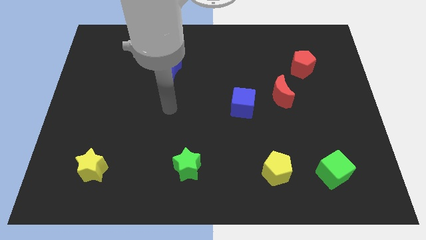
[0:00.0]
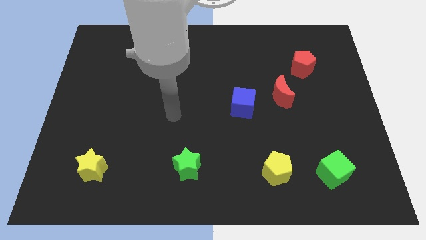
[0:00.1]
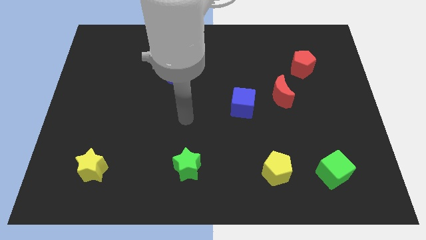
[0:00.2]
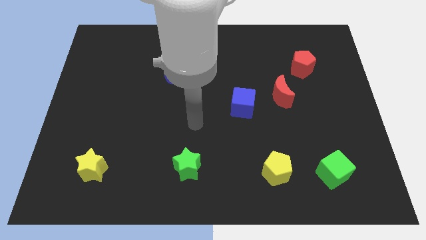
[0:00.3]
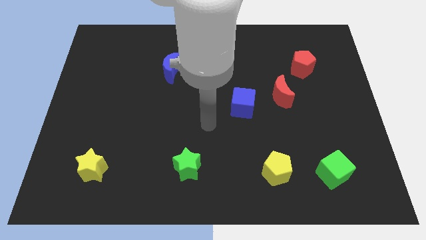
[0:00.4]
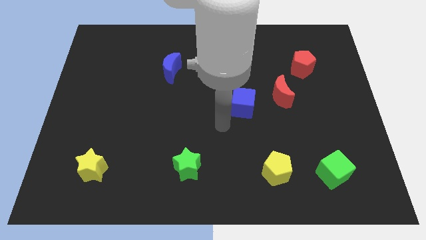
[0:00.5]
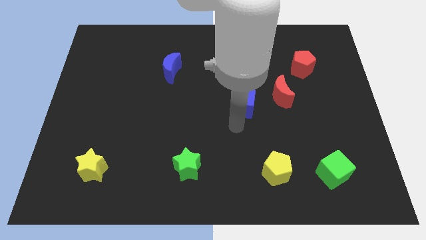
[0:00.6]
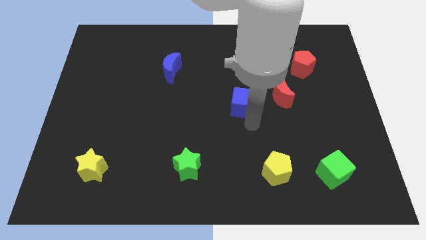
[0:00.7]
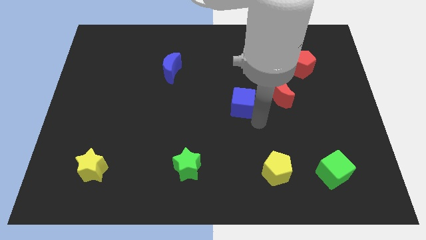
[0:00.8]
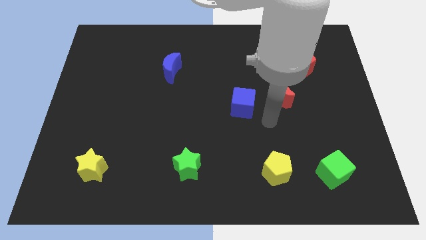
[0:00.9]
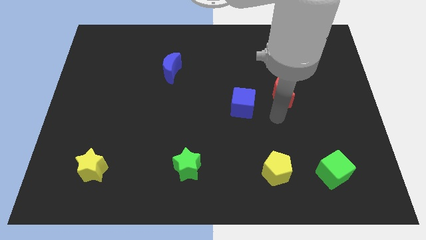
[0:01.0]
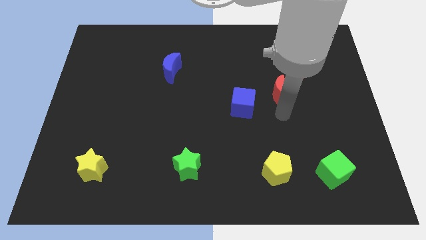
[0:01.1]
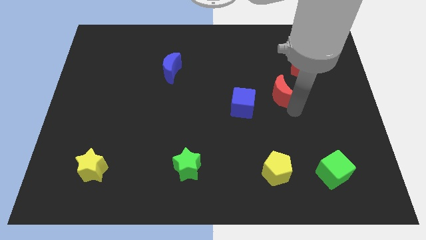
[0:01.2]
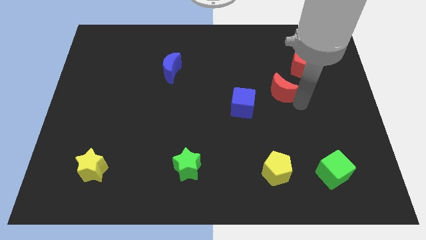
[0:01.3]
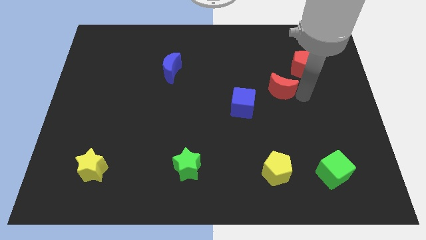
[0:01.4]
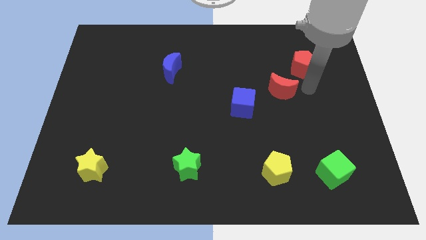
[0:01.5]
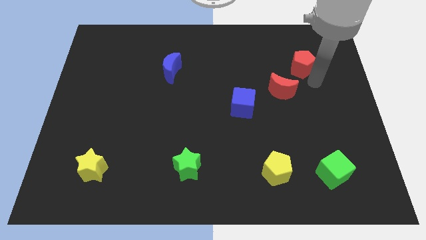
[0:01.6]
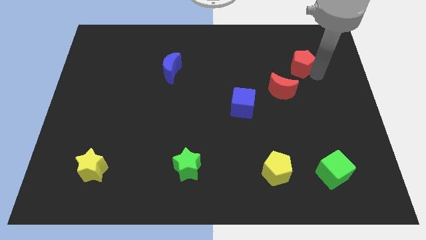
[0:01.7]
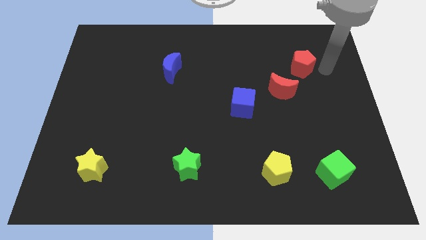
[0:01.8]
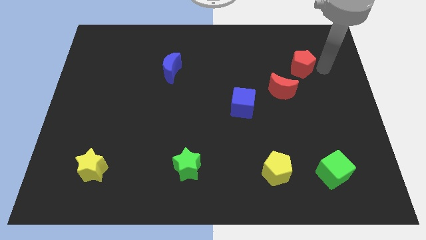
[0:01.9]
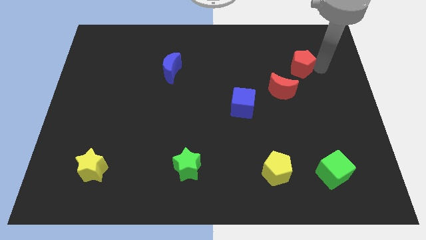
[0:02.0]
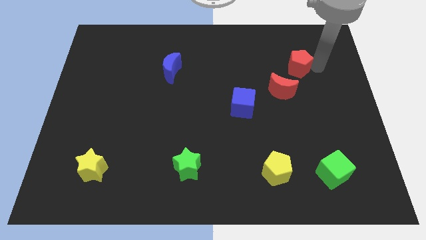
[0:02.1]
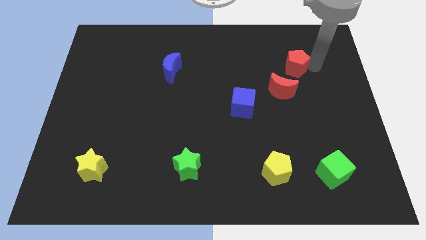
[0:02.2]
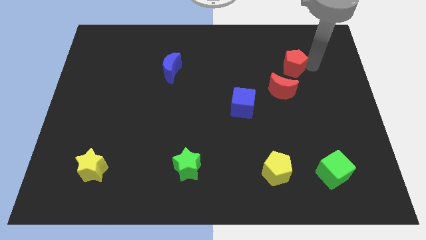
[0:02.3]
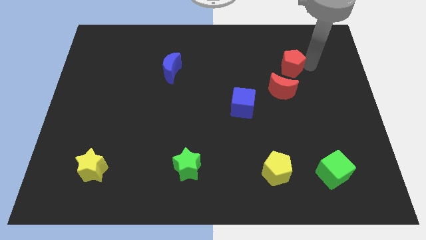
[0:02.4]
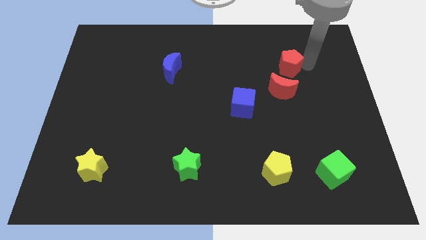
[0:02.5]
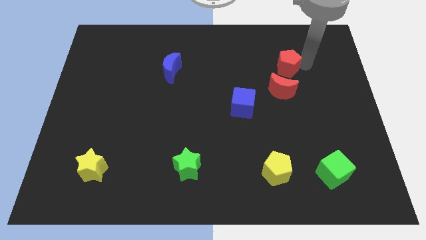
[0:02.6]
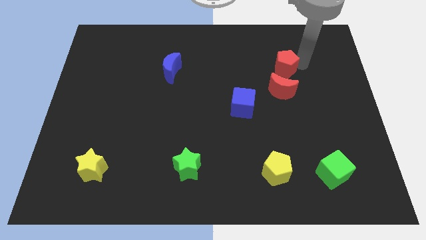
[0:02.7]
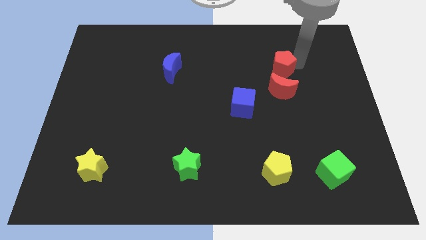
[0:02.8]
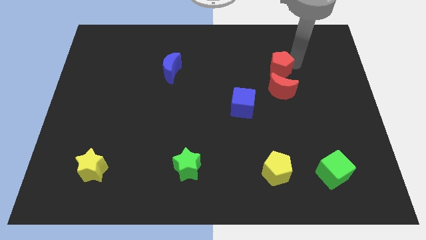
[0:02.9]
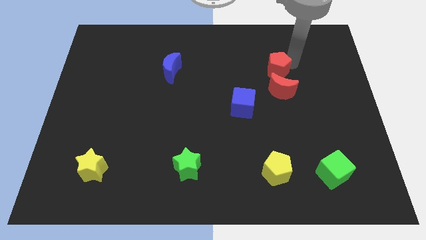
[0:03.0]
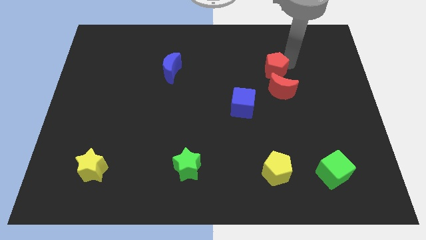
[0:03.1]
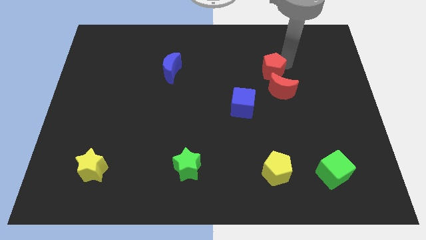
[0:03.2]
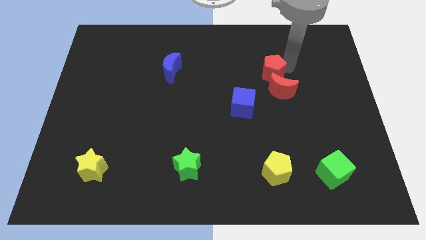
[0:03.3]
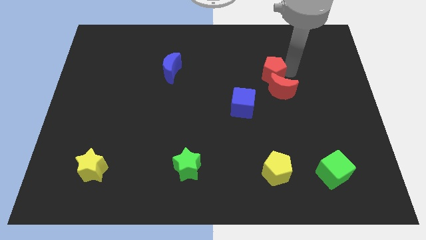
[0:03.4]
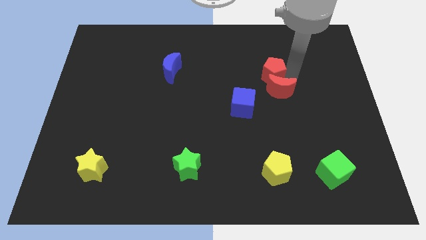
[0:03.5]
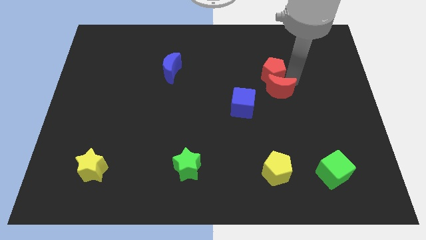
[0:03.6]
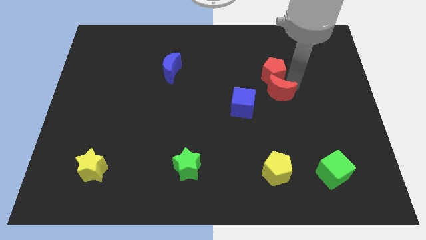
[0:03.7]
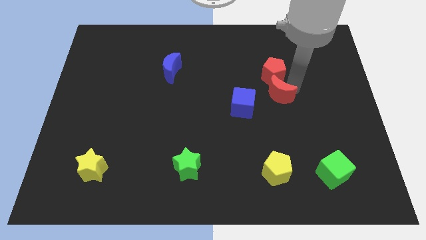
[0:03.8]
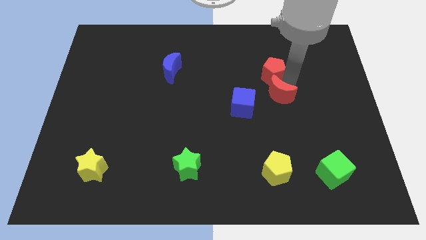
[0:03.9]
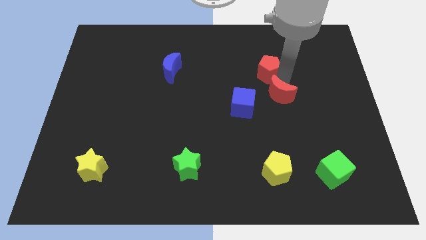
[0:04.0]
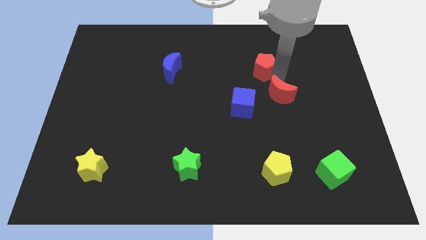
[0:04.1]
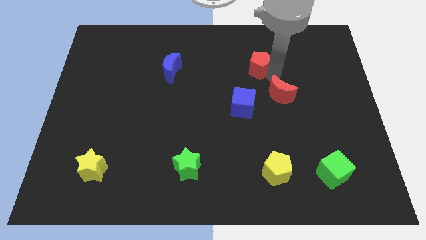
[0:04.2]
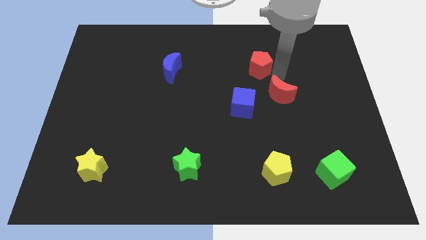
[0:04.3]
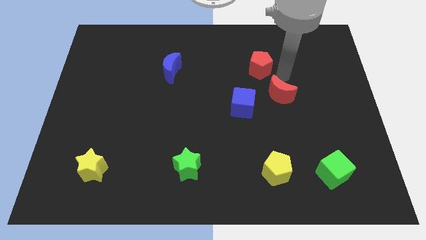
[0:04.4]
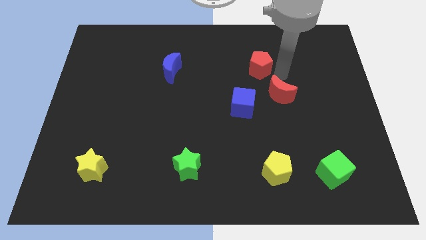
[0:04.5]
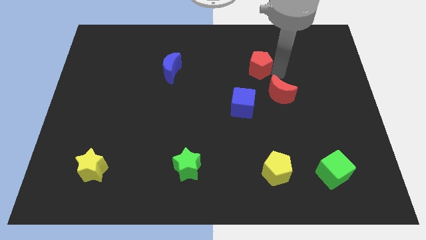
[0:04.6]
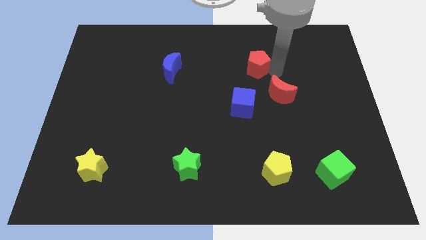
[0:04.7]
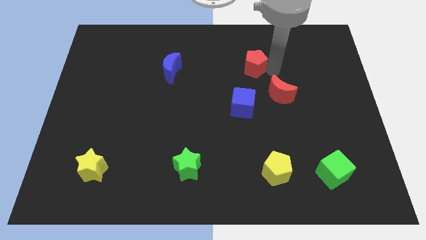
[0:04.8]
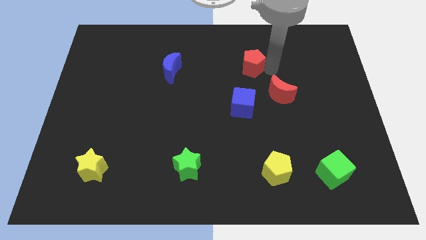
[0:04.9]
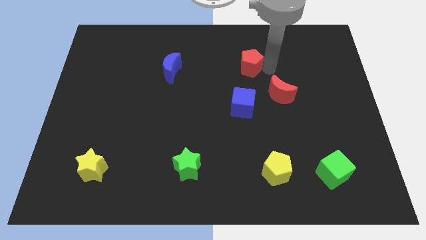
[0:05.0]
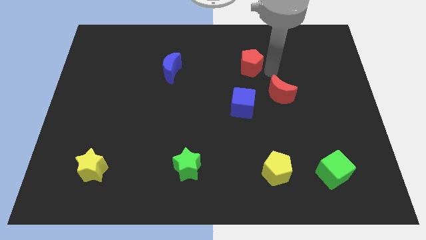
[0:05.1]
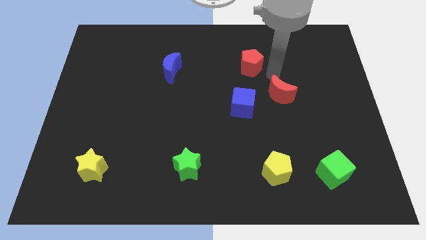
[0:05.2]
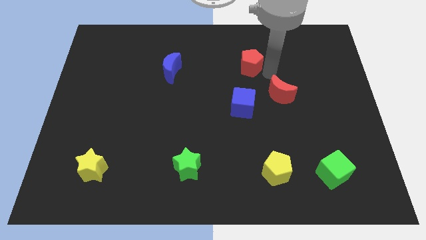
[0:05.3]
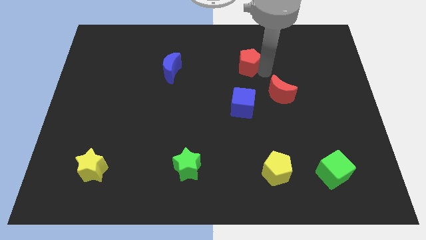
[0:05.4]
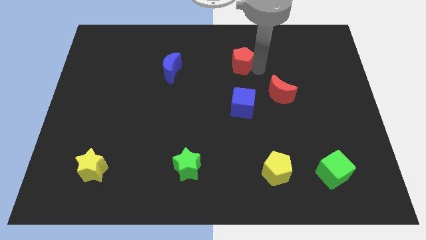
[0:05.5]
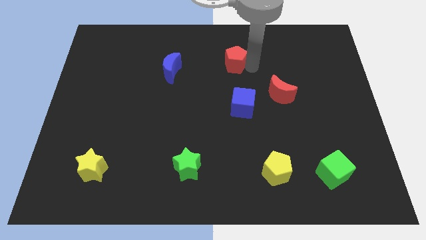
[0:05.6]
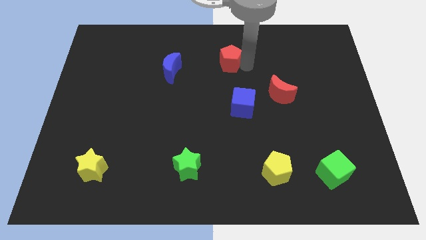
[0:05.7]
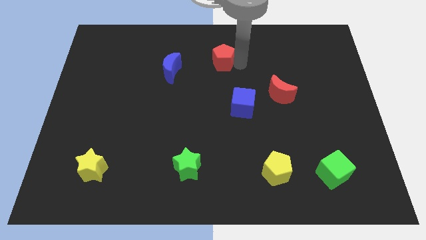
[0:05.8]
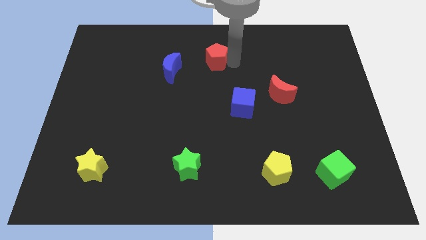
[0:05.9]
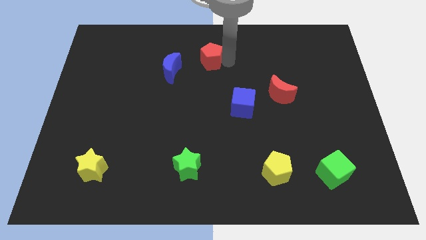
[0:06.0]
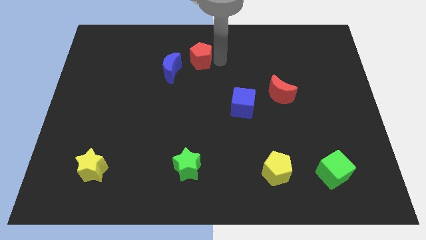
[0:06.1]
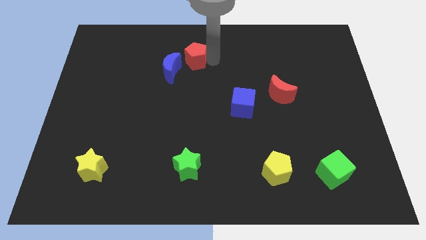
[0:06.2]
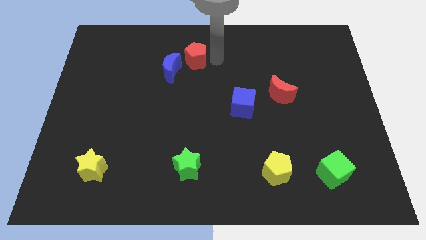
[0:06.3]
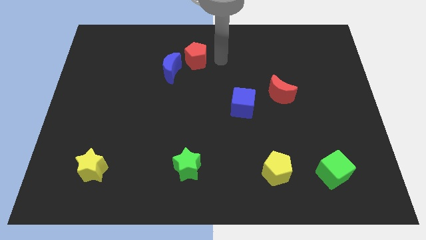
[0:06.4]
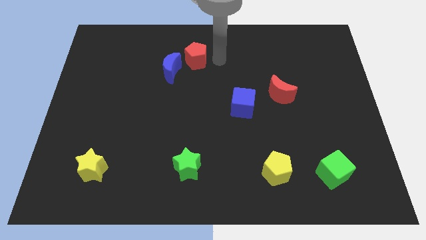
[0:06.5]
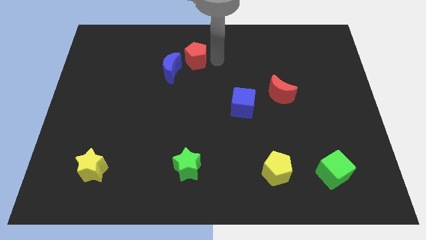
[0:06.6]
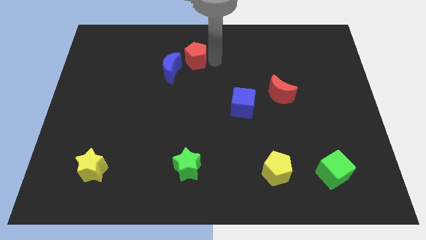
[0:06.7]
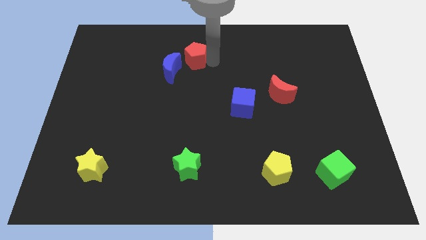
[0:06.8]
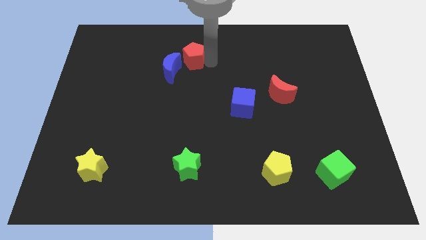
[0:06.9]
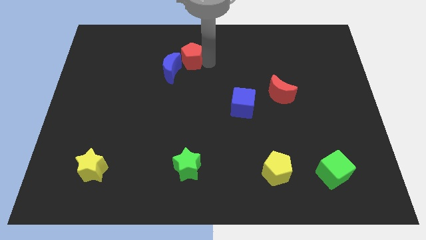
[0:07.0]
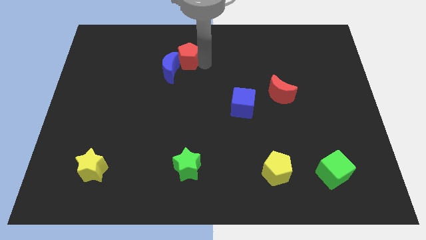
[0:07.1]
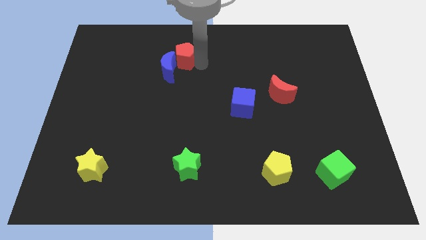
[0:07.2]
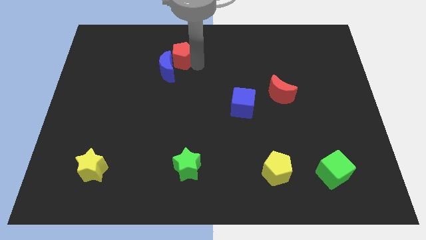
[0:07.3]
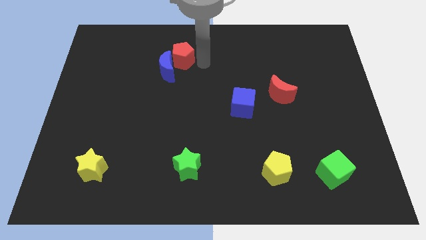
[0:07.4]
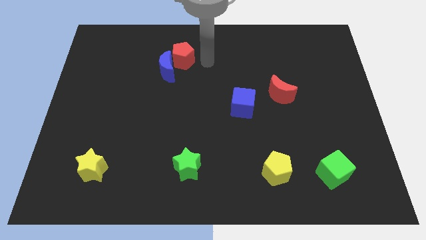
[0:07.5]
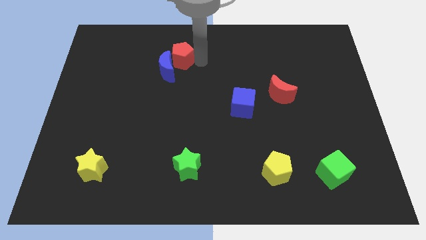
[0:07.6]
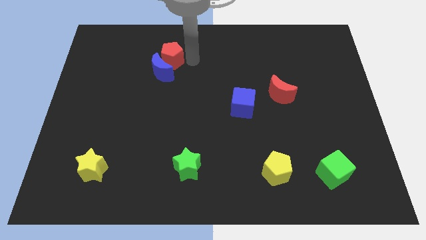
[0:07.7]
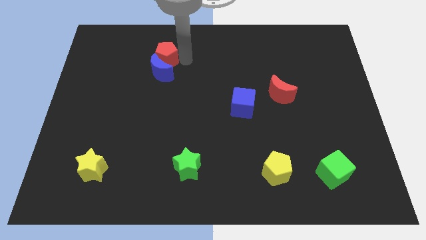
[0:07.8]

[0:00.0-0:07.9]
slide the red pentagon diagonally up and to the left of the blue moon
